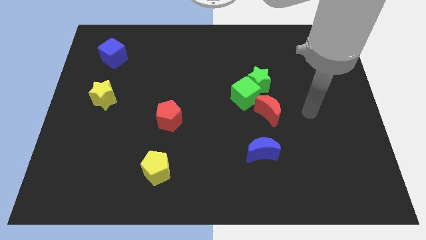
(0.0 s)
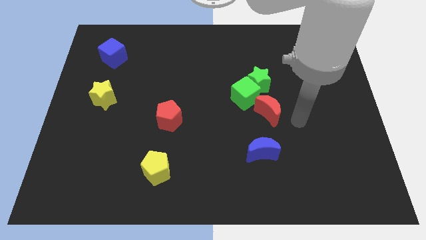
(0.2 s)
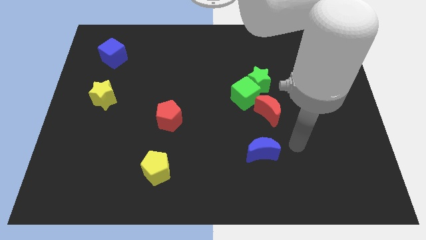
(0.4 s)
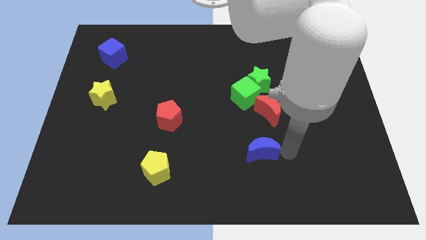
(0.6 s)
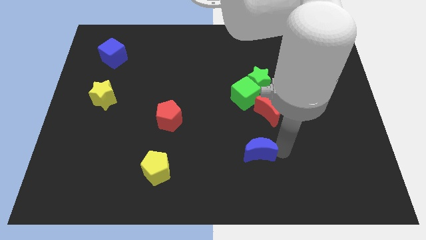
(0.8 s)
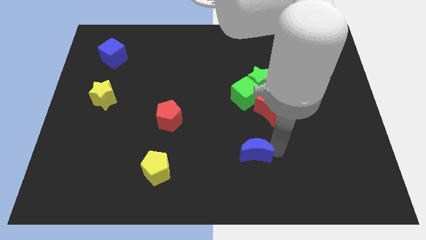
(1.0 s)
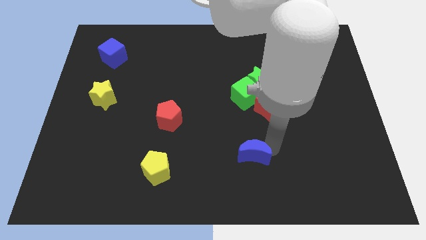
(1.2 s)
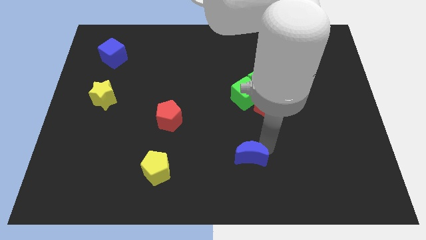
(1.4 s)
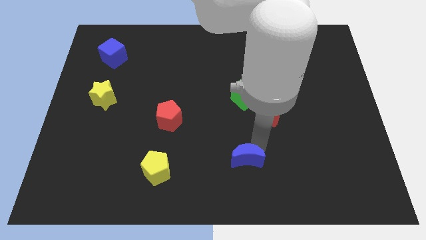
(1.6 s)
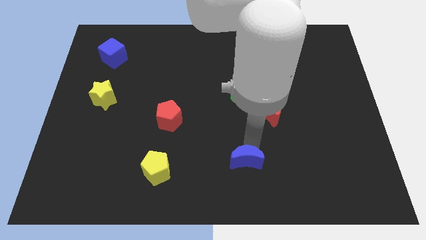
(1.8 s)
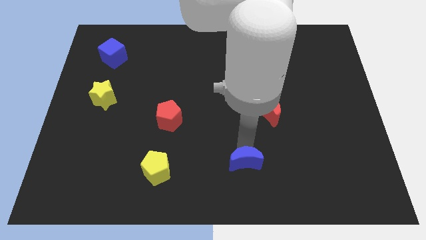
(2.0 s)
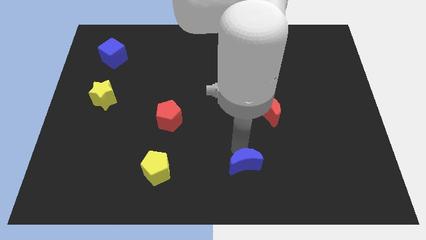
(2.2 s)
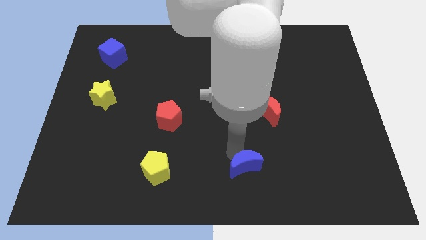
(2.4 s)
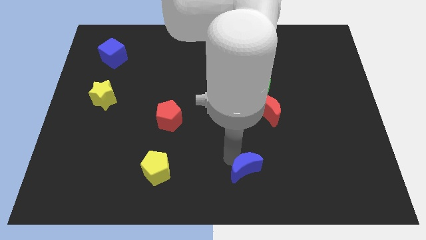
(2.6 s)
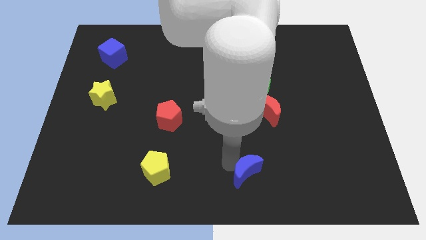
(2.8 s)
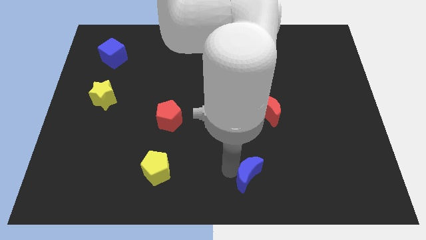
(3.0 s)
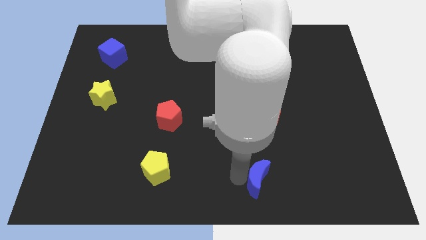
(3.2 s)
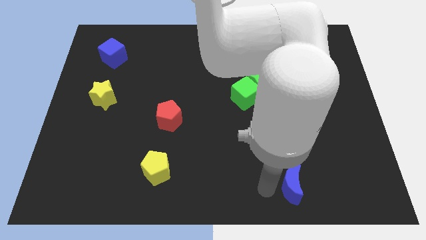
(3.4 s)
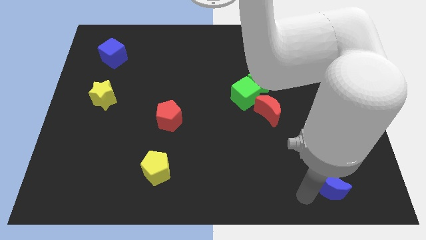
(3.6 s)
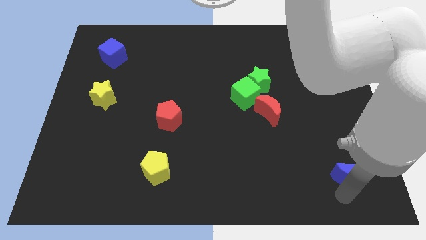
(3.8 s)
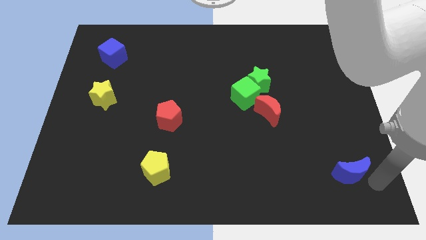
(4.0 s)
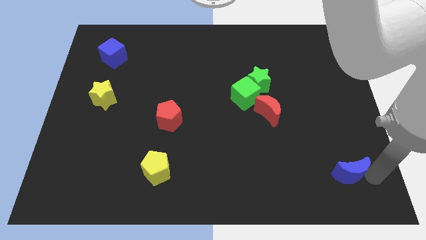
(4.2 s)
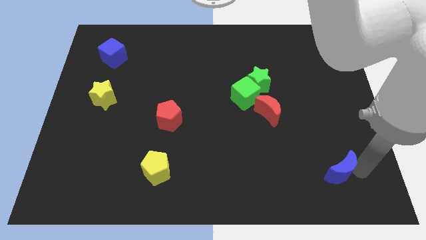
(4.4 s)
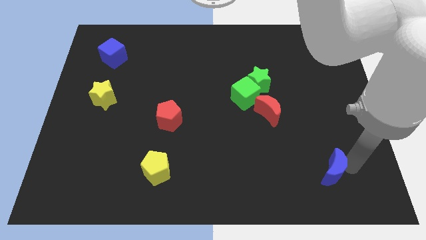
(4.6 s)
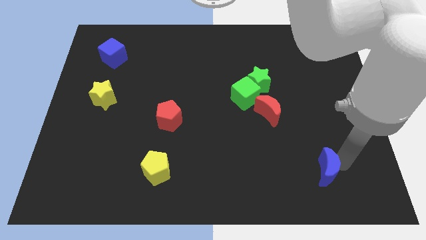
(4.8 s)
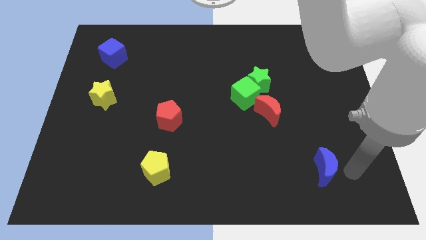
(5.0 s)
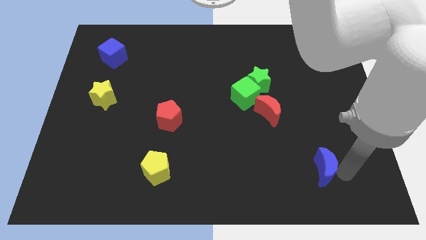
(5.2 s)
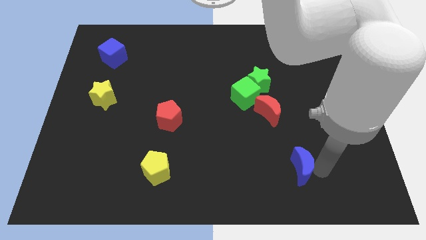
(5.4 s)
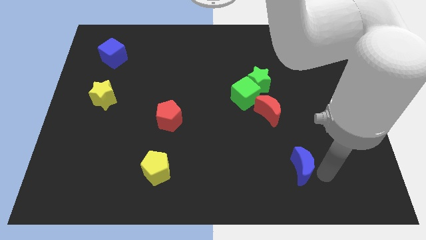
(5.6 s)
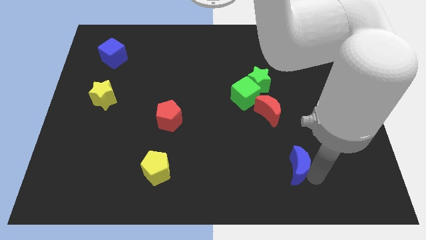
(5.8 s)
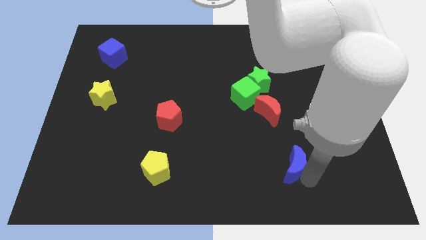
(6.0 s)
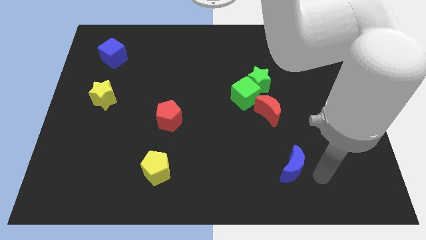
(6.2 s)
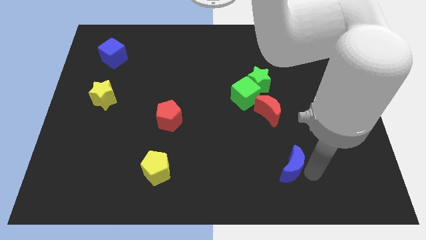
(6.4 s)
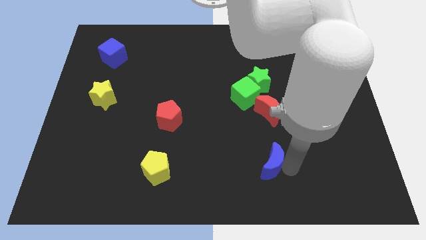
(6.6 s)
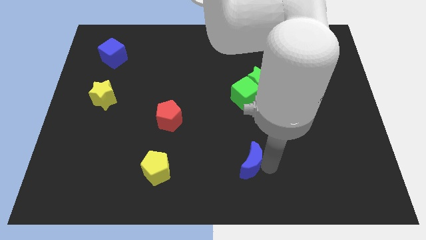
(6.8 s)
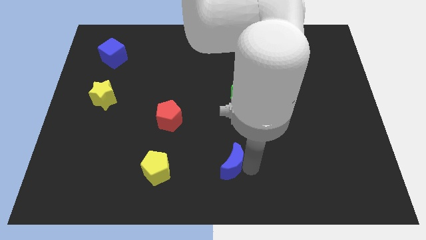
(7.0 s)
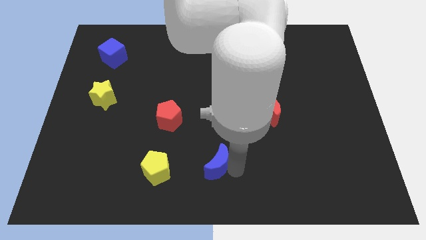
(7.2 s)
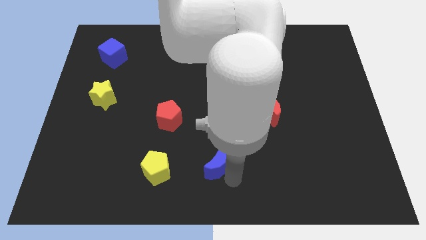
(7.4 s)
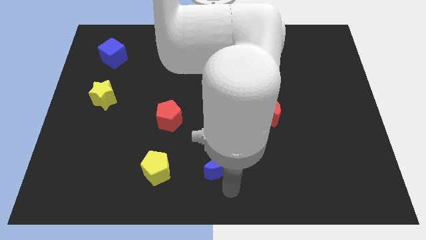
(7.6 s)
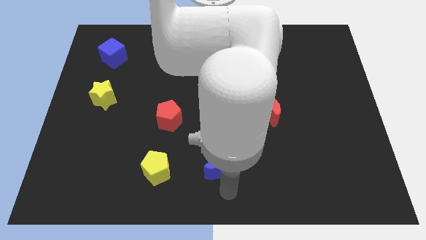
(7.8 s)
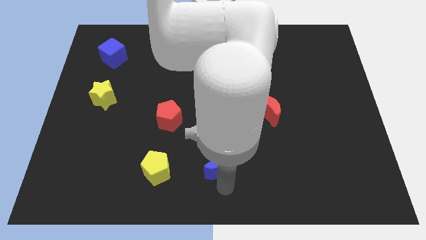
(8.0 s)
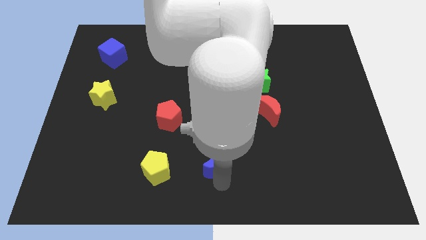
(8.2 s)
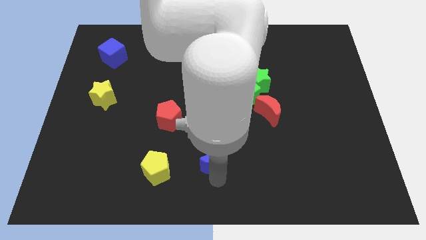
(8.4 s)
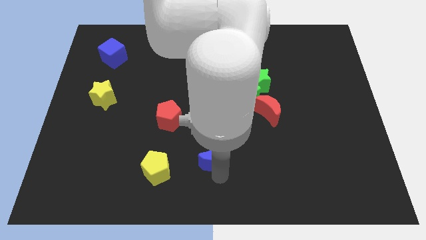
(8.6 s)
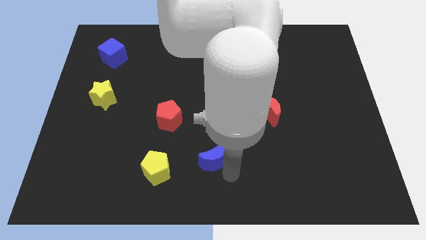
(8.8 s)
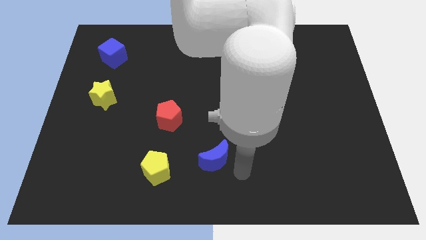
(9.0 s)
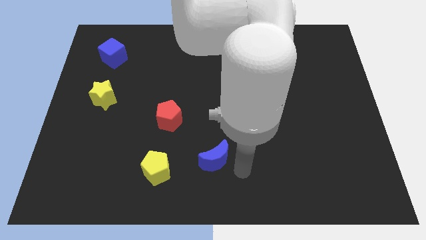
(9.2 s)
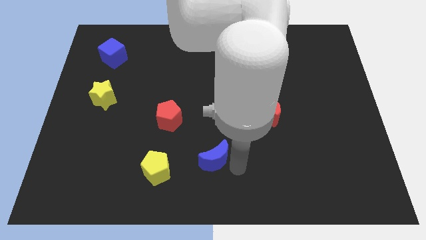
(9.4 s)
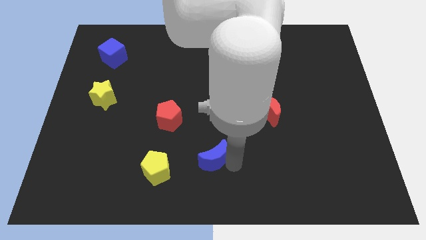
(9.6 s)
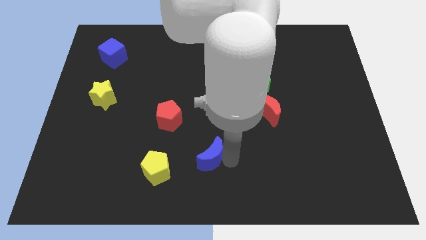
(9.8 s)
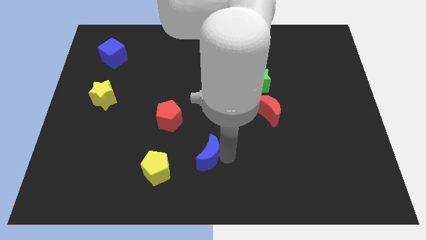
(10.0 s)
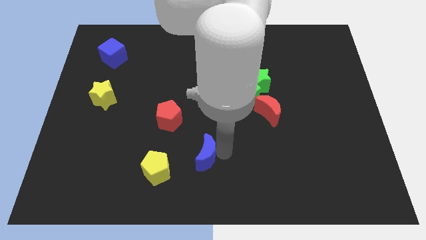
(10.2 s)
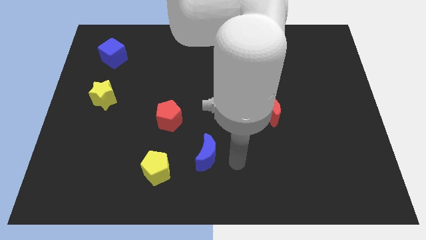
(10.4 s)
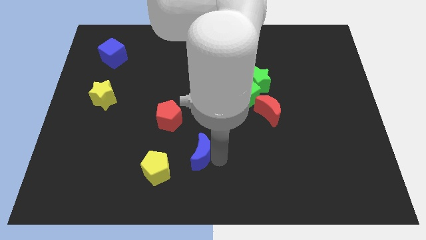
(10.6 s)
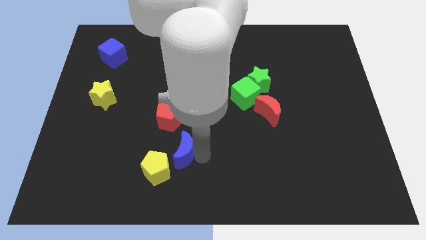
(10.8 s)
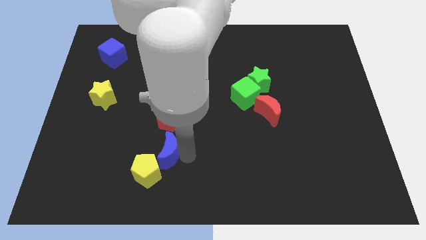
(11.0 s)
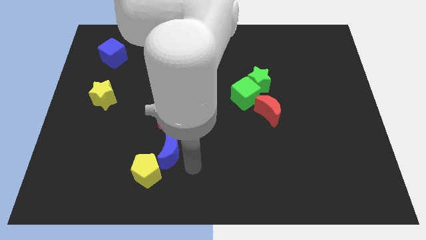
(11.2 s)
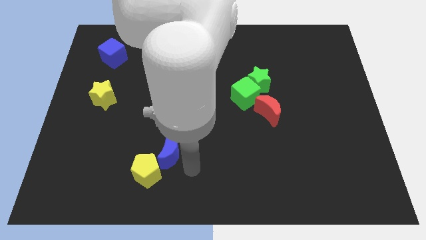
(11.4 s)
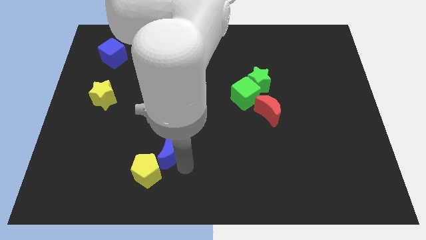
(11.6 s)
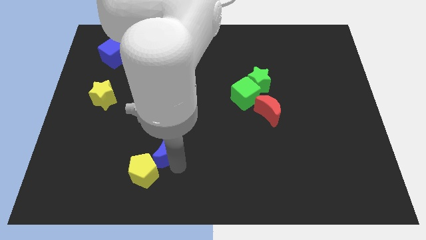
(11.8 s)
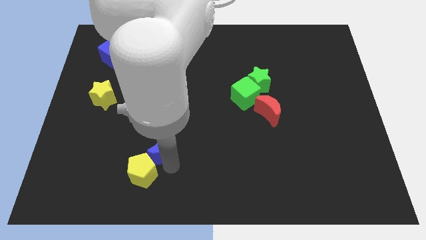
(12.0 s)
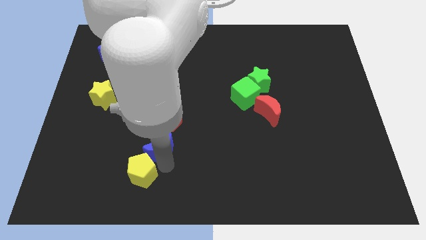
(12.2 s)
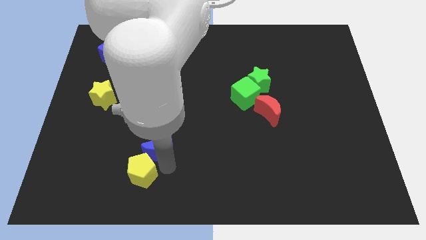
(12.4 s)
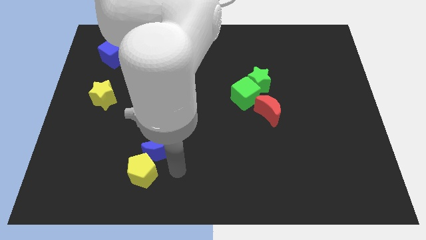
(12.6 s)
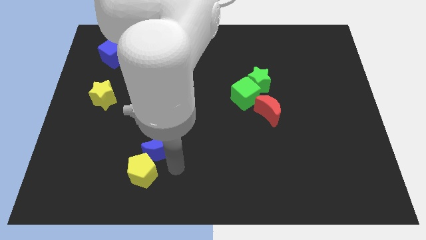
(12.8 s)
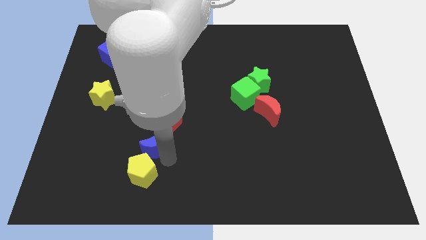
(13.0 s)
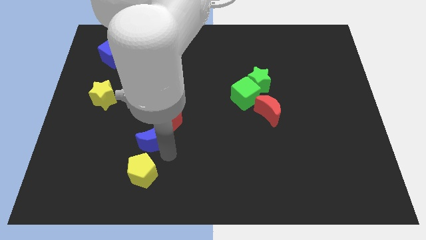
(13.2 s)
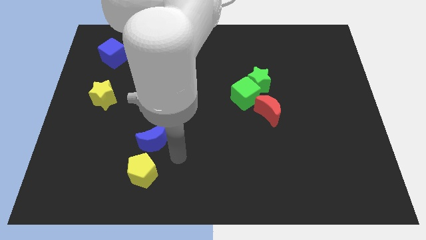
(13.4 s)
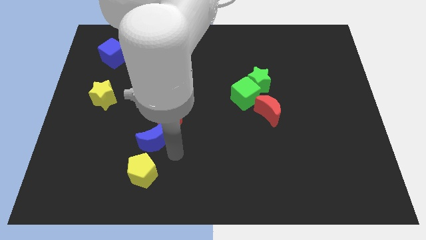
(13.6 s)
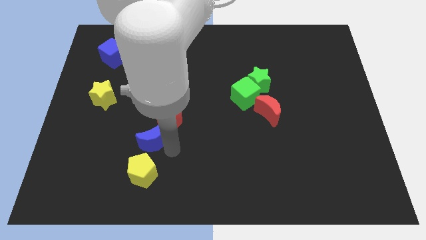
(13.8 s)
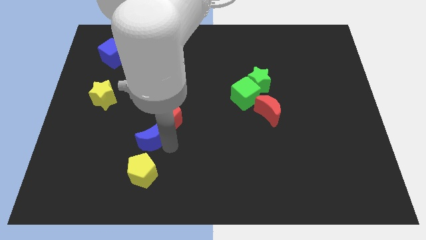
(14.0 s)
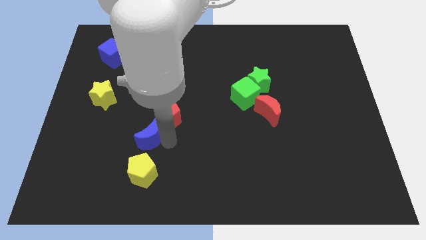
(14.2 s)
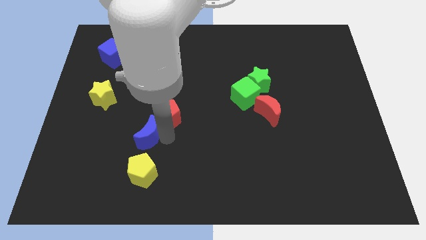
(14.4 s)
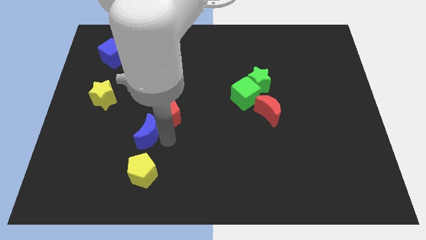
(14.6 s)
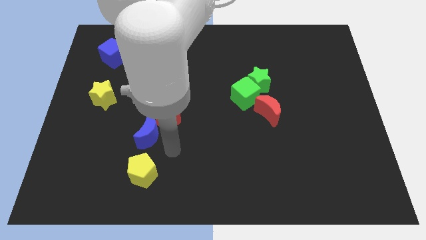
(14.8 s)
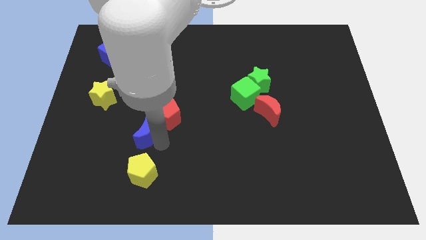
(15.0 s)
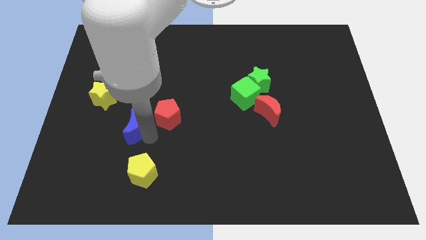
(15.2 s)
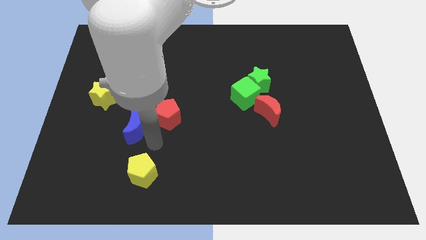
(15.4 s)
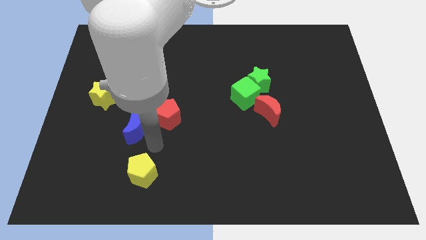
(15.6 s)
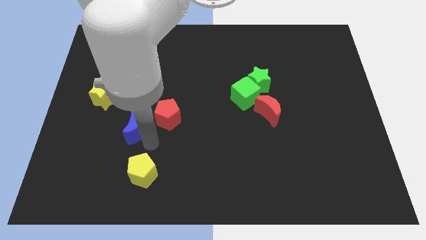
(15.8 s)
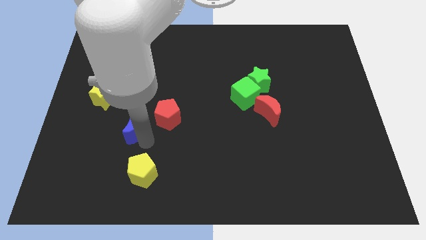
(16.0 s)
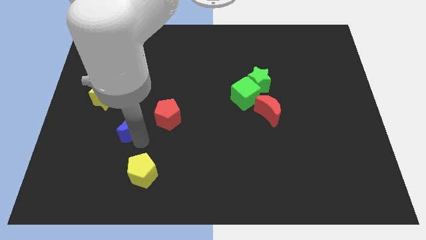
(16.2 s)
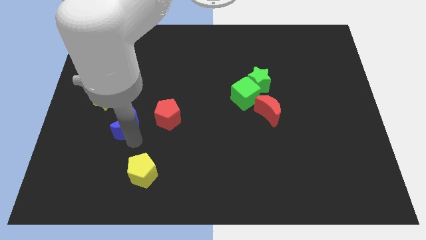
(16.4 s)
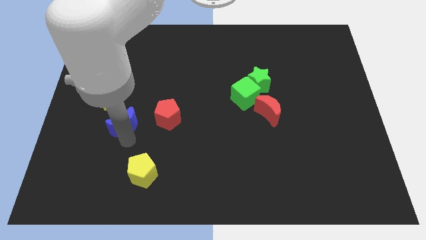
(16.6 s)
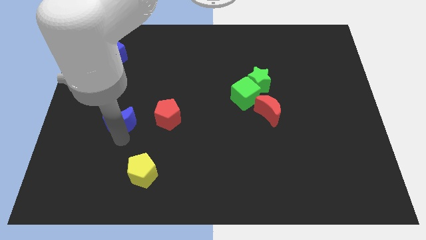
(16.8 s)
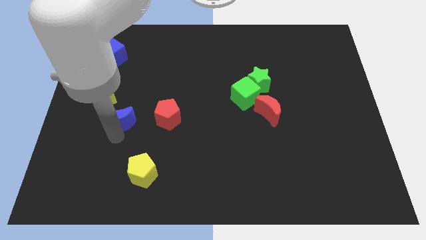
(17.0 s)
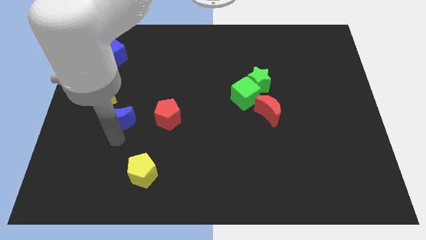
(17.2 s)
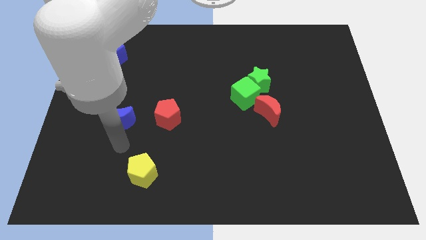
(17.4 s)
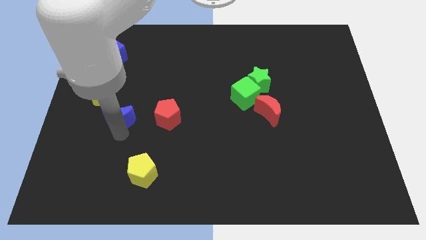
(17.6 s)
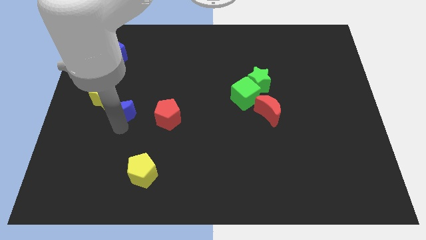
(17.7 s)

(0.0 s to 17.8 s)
put the blue moon next to the yellow star
